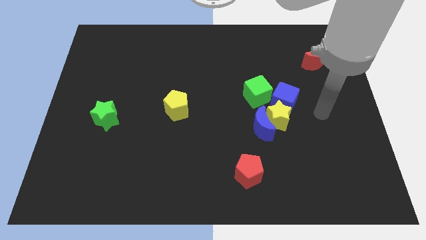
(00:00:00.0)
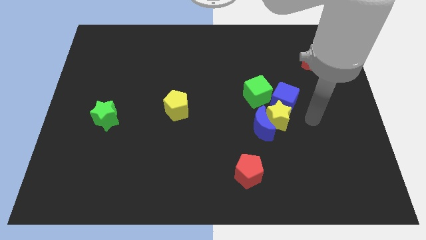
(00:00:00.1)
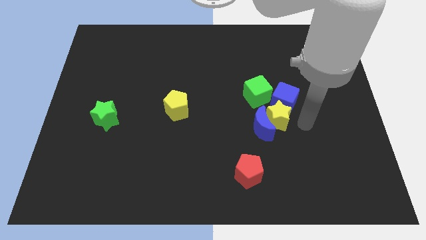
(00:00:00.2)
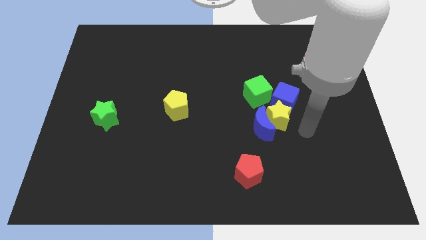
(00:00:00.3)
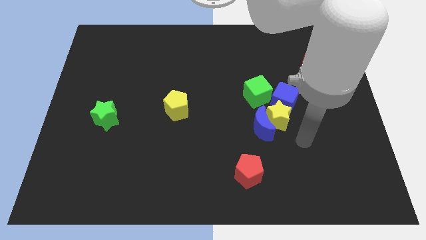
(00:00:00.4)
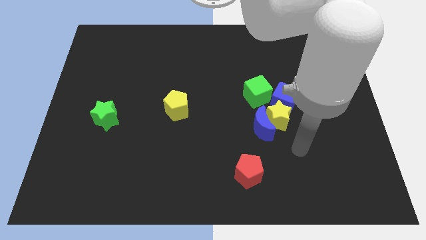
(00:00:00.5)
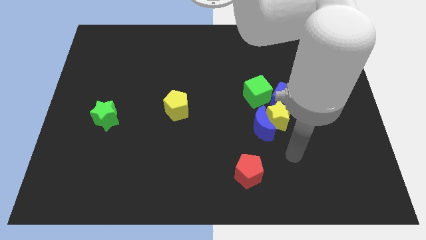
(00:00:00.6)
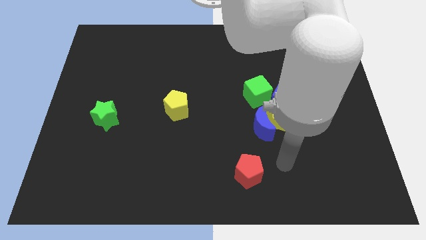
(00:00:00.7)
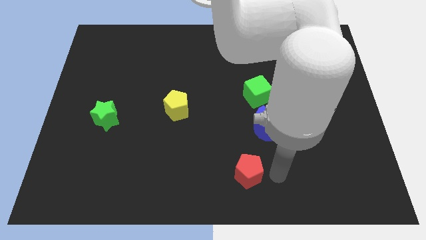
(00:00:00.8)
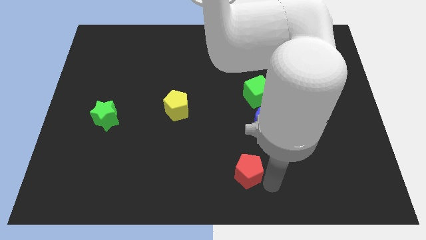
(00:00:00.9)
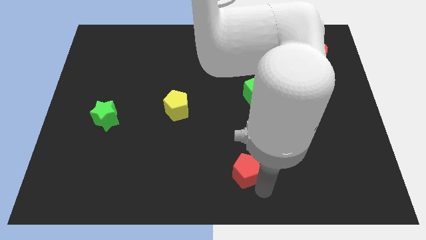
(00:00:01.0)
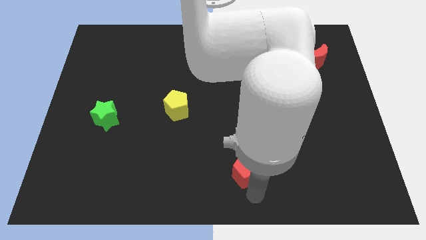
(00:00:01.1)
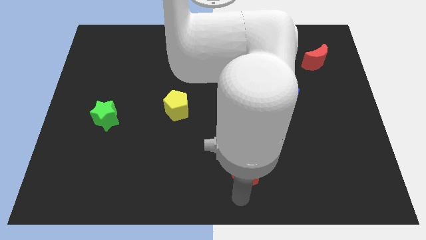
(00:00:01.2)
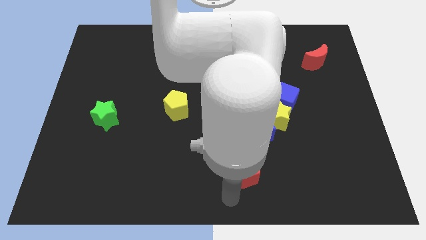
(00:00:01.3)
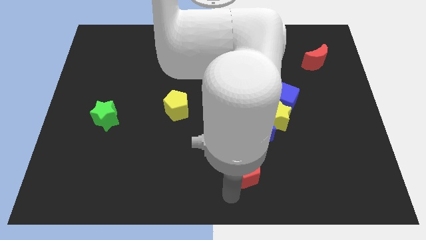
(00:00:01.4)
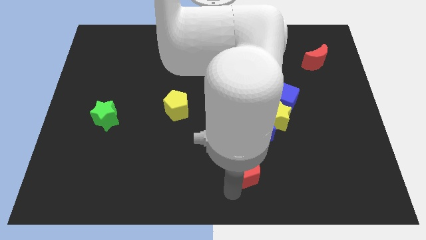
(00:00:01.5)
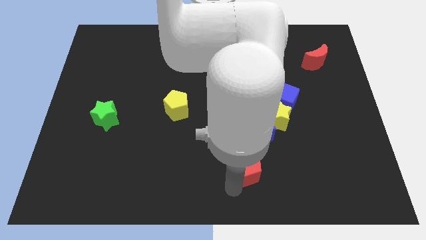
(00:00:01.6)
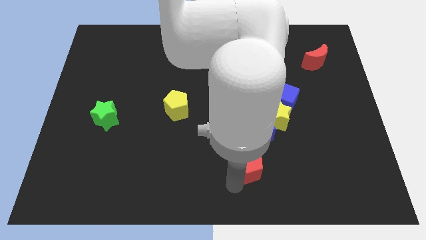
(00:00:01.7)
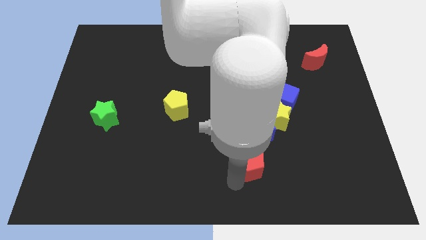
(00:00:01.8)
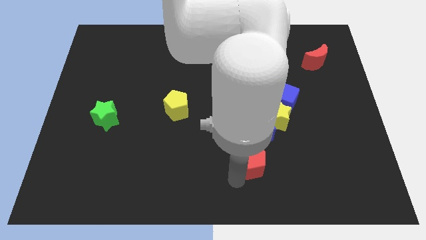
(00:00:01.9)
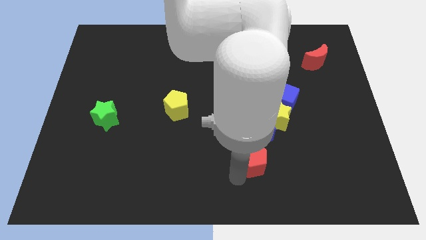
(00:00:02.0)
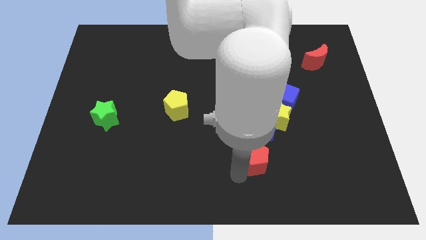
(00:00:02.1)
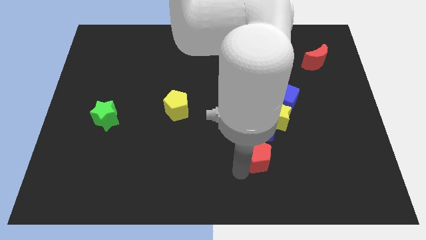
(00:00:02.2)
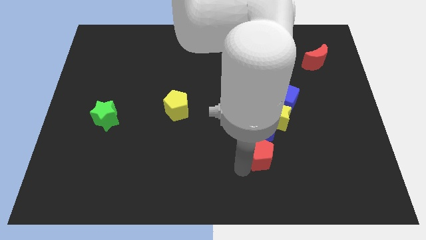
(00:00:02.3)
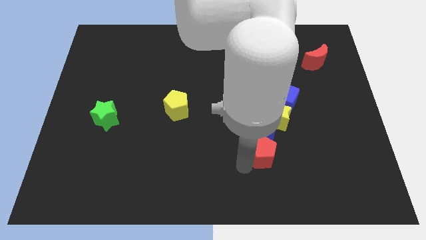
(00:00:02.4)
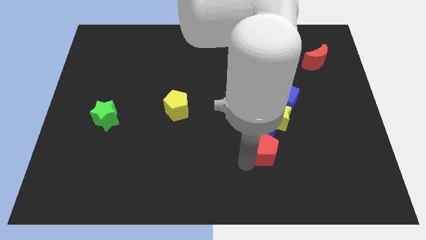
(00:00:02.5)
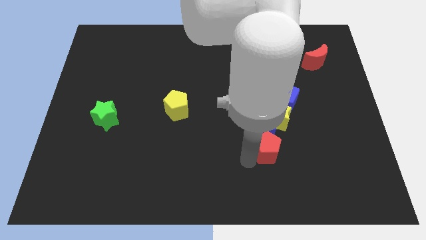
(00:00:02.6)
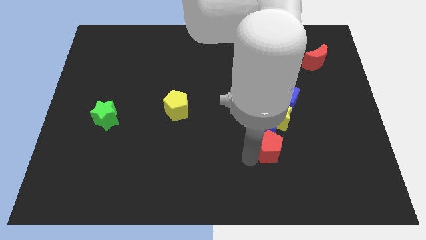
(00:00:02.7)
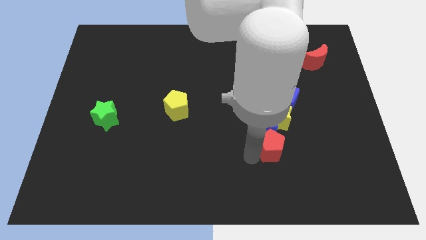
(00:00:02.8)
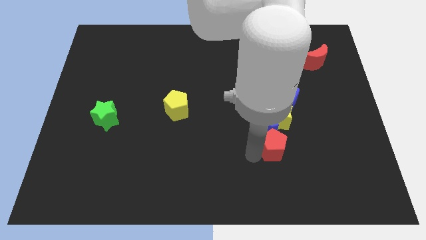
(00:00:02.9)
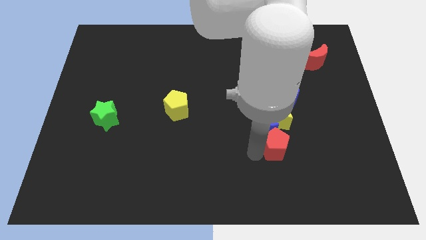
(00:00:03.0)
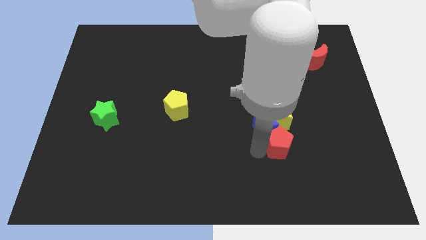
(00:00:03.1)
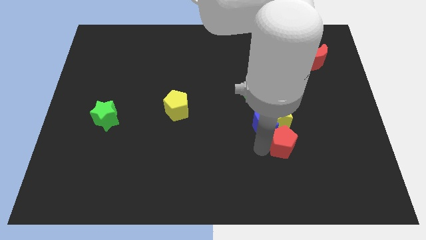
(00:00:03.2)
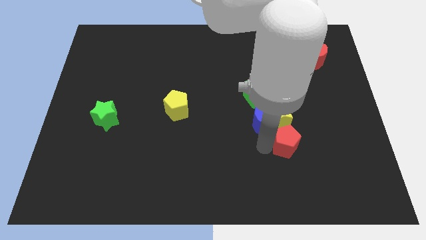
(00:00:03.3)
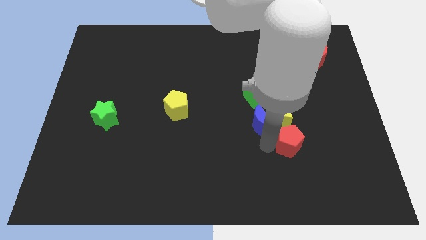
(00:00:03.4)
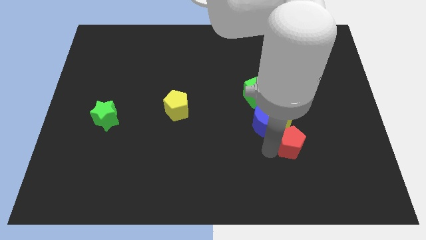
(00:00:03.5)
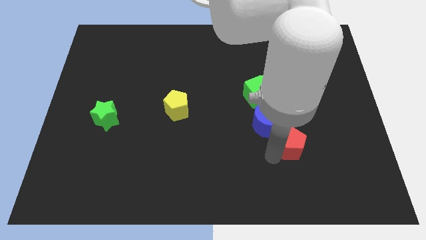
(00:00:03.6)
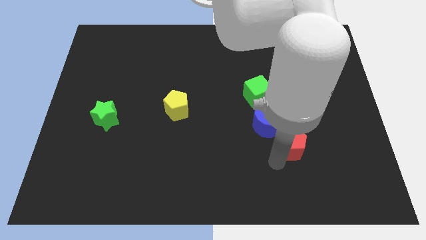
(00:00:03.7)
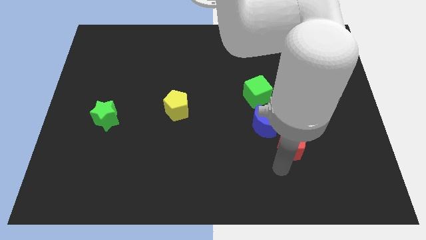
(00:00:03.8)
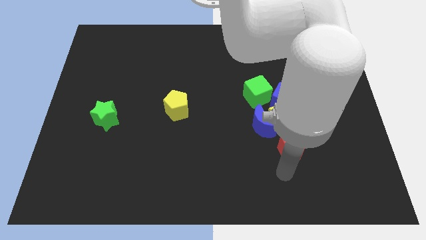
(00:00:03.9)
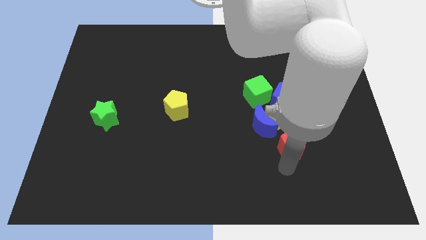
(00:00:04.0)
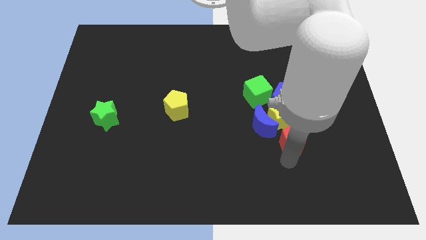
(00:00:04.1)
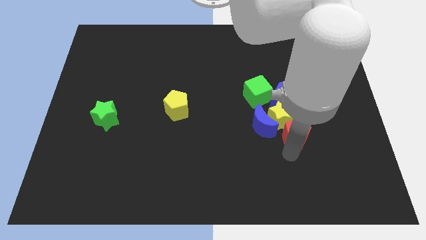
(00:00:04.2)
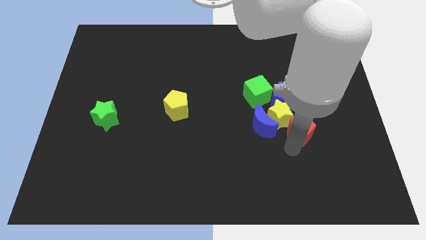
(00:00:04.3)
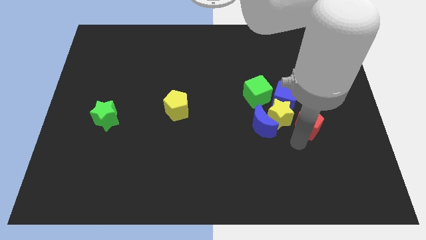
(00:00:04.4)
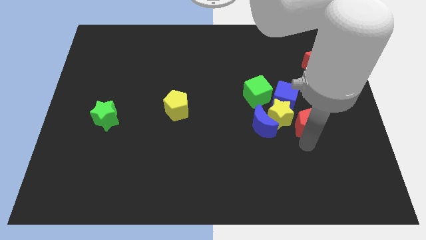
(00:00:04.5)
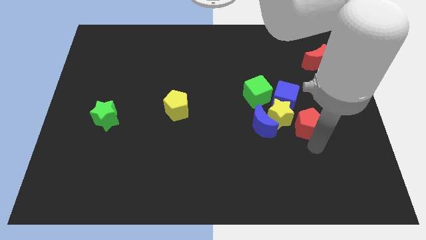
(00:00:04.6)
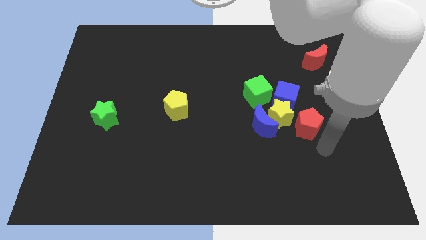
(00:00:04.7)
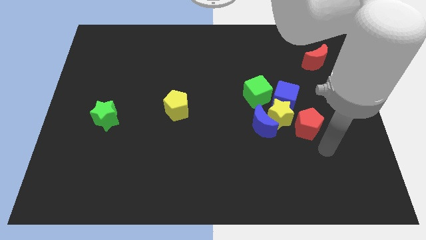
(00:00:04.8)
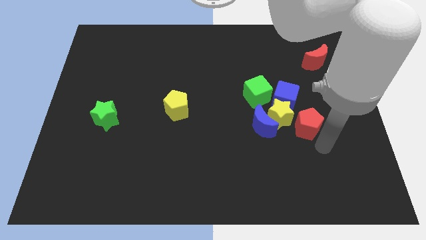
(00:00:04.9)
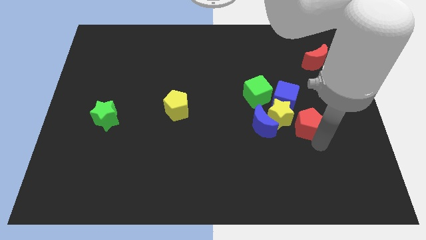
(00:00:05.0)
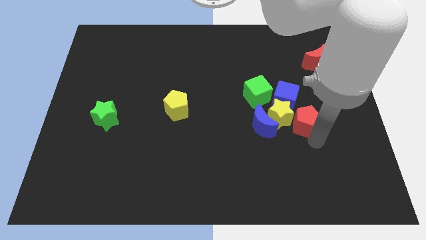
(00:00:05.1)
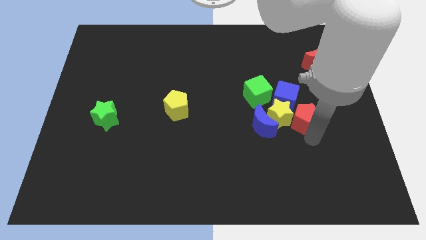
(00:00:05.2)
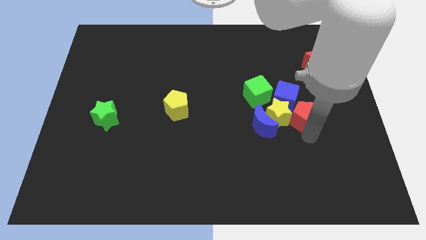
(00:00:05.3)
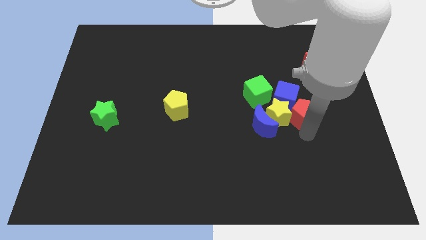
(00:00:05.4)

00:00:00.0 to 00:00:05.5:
push the red pentagon to the blue cube

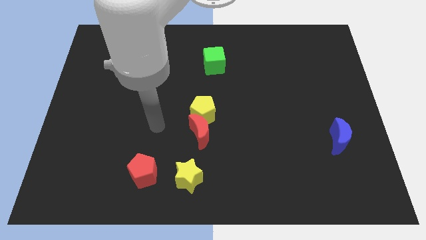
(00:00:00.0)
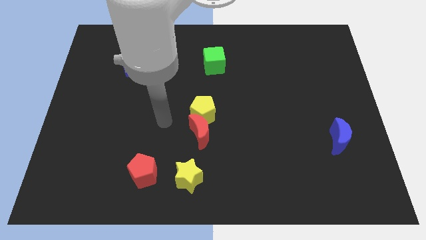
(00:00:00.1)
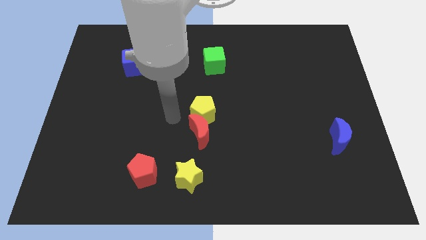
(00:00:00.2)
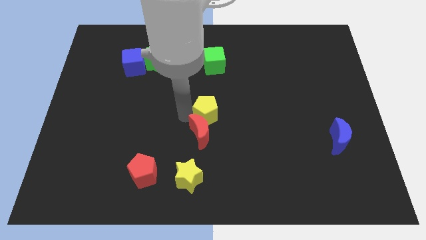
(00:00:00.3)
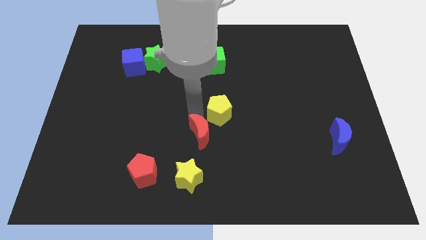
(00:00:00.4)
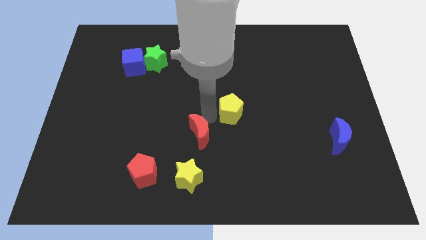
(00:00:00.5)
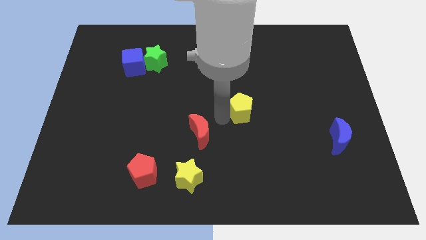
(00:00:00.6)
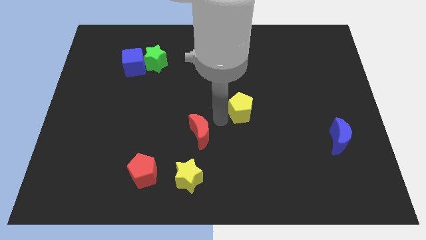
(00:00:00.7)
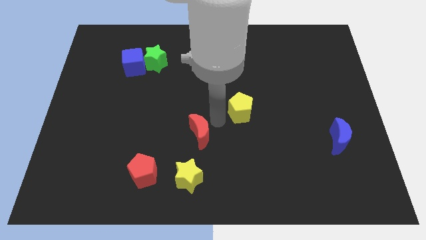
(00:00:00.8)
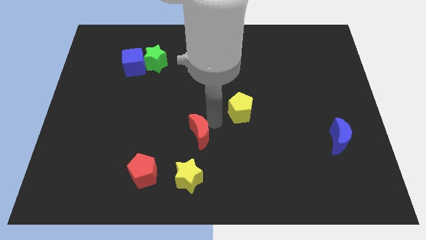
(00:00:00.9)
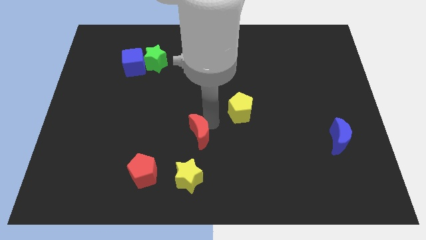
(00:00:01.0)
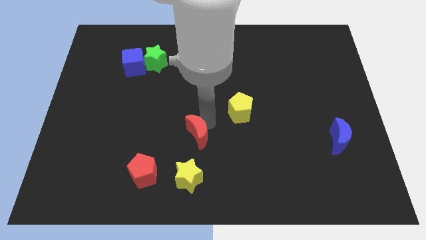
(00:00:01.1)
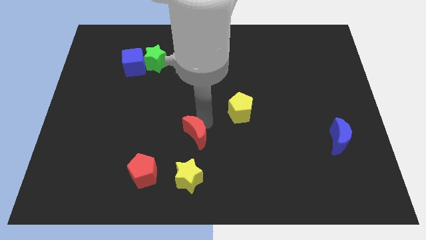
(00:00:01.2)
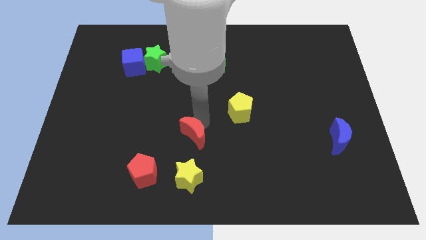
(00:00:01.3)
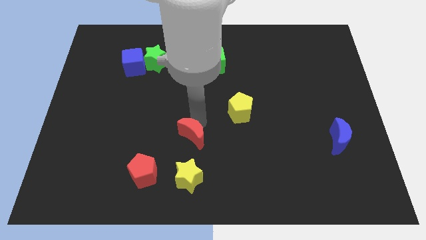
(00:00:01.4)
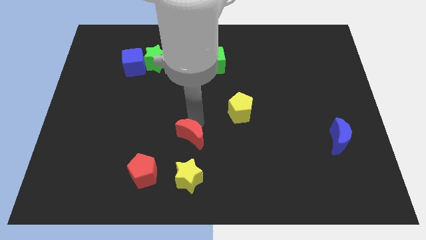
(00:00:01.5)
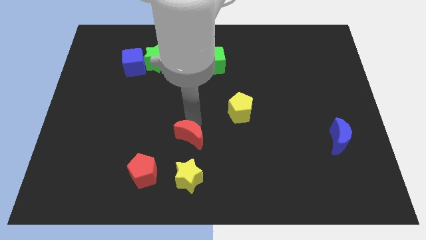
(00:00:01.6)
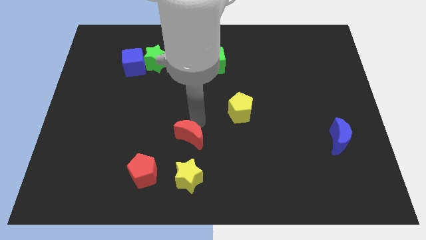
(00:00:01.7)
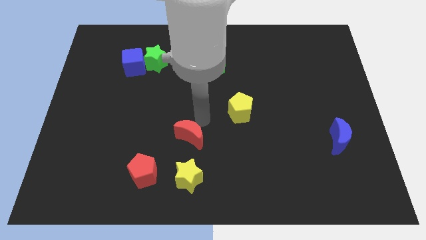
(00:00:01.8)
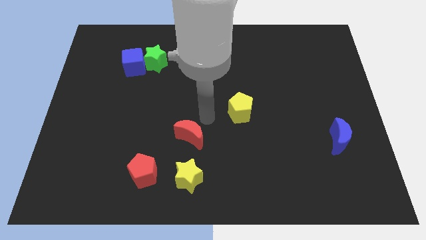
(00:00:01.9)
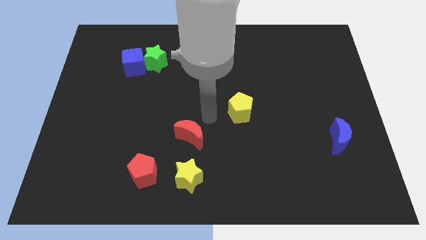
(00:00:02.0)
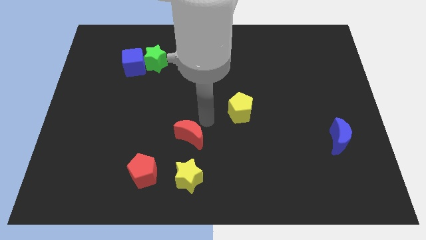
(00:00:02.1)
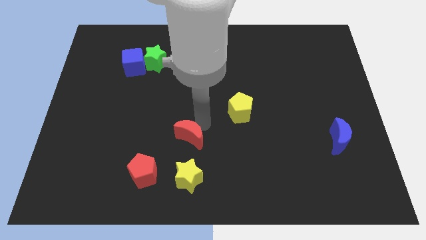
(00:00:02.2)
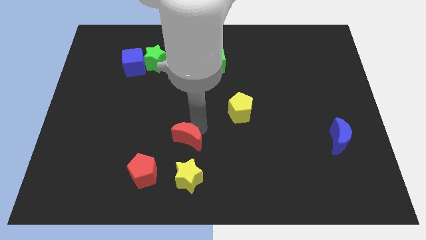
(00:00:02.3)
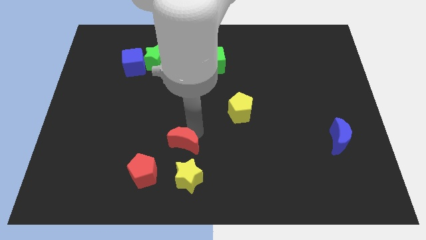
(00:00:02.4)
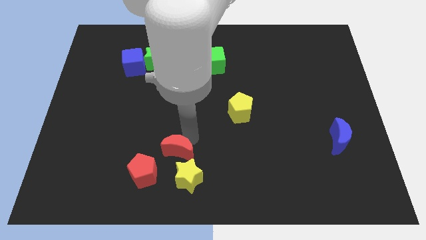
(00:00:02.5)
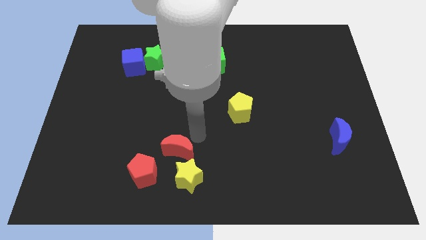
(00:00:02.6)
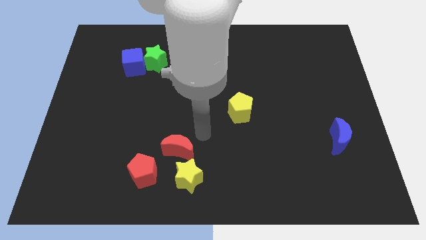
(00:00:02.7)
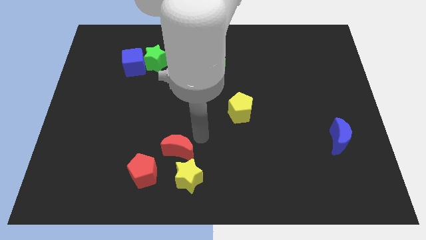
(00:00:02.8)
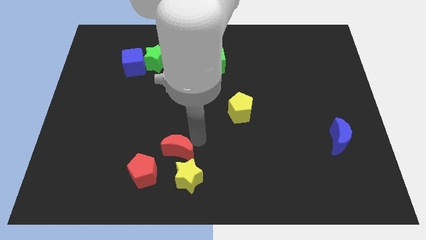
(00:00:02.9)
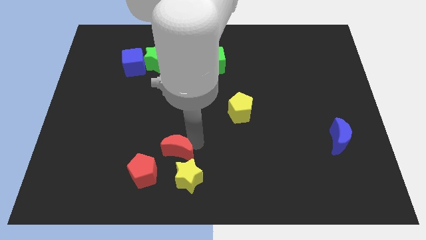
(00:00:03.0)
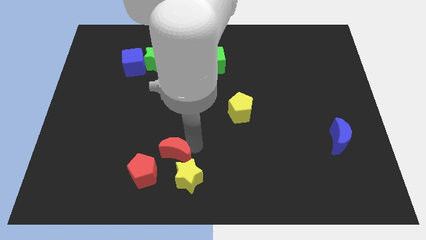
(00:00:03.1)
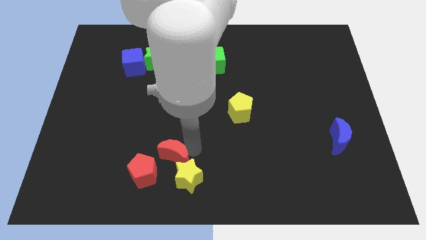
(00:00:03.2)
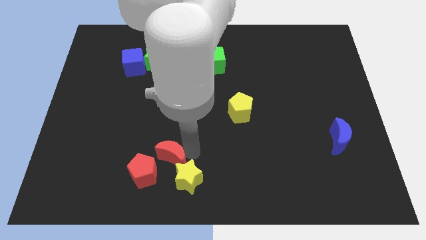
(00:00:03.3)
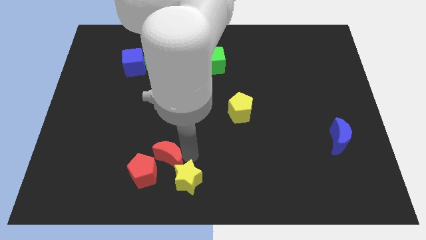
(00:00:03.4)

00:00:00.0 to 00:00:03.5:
push the red moon towards the red pentagon
